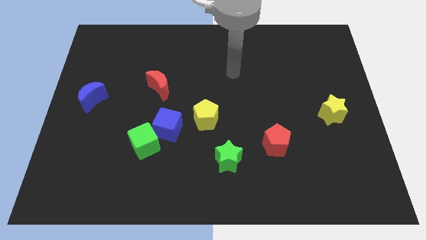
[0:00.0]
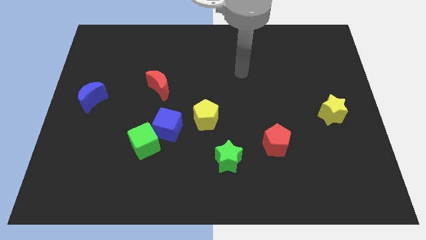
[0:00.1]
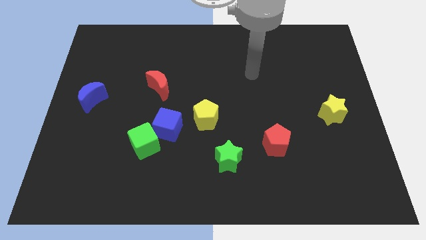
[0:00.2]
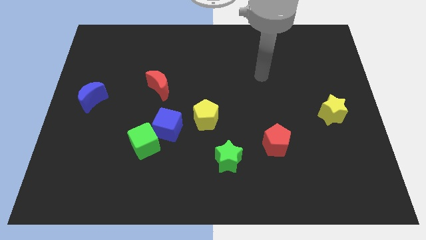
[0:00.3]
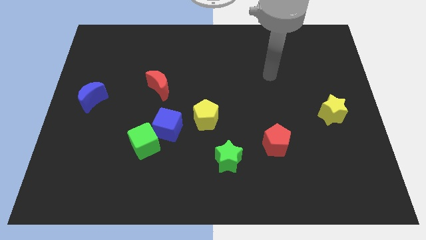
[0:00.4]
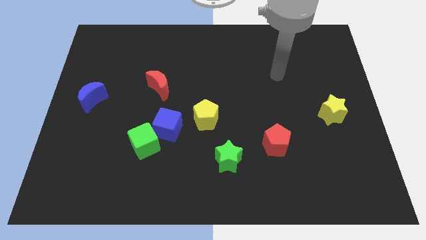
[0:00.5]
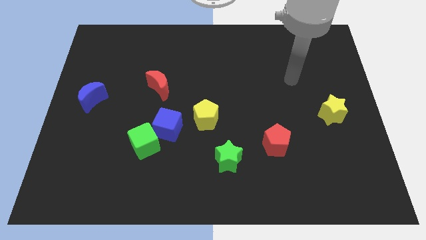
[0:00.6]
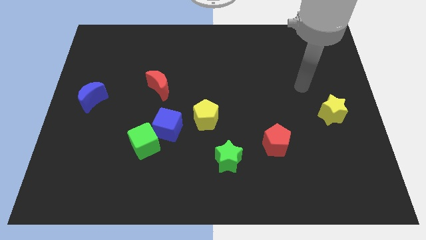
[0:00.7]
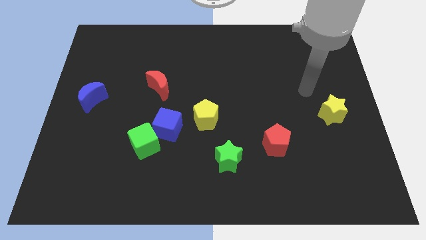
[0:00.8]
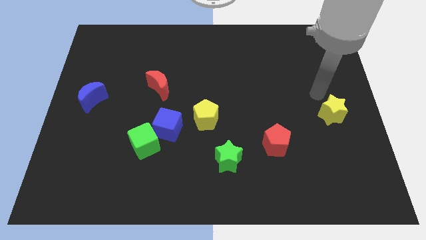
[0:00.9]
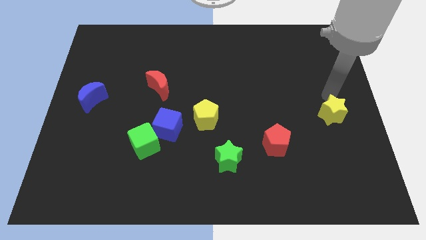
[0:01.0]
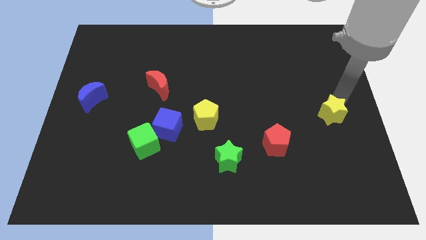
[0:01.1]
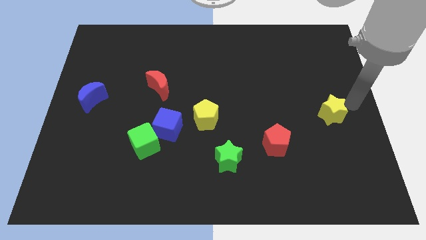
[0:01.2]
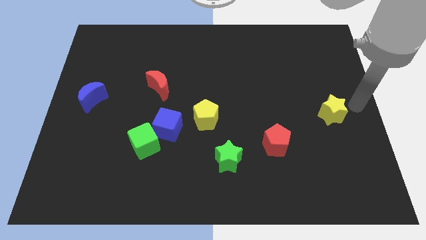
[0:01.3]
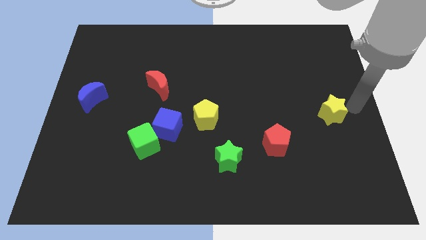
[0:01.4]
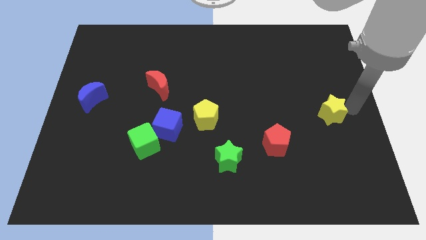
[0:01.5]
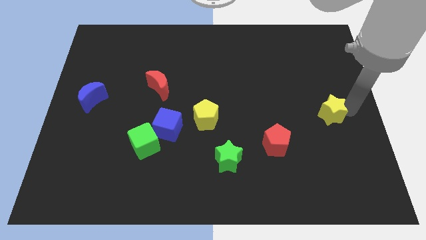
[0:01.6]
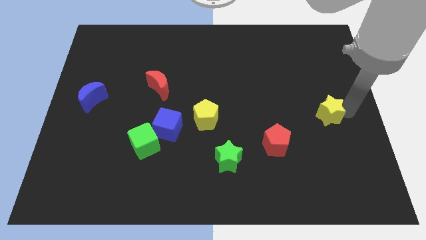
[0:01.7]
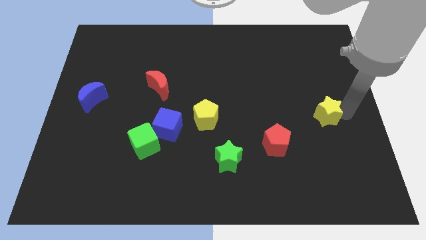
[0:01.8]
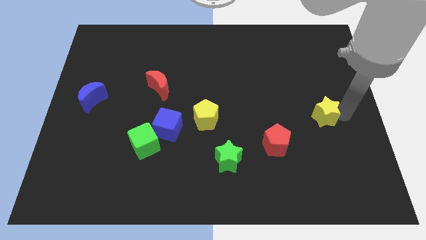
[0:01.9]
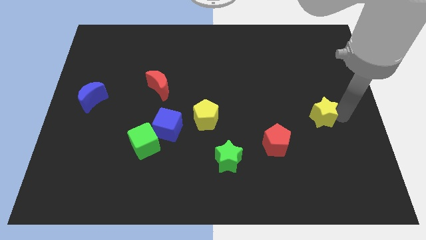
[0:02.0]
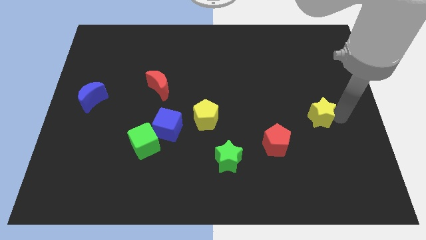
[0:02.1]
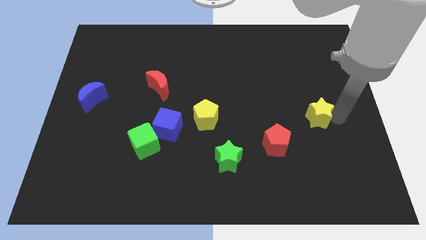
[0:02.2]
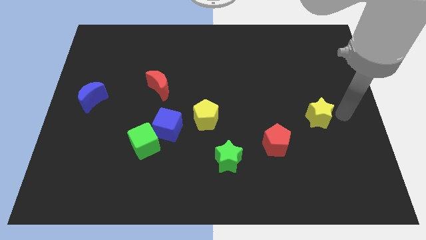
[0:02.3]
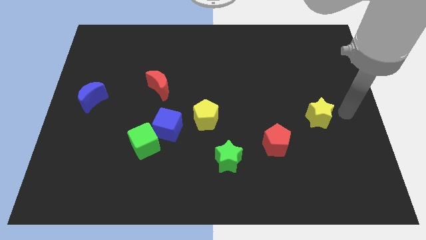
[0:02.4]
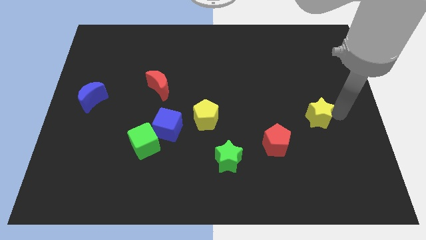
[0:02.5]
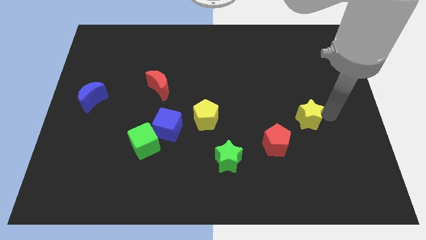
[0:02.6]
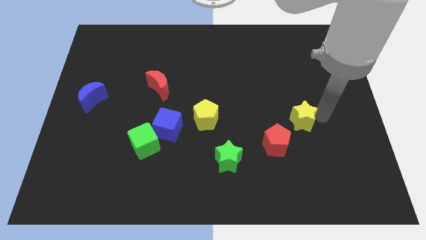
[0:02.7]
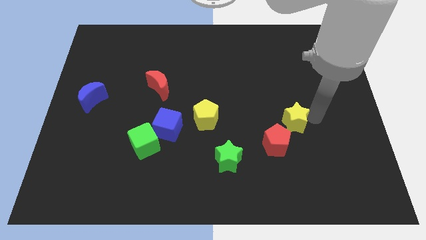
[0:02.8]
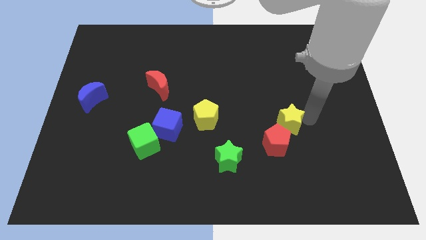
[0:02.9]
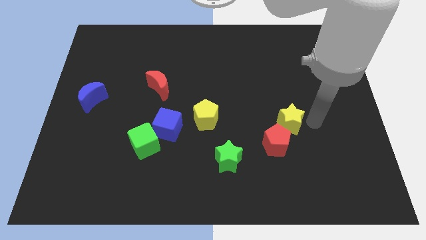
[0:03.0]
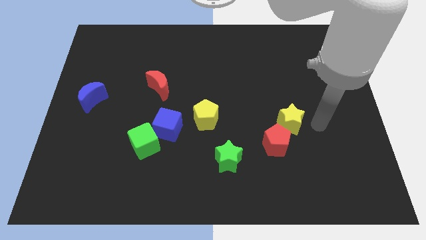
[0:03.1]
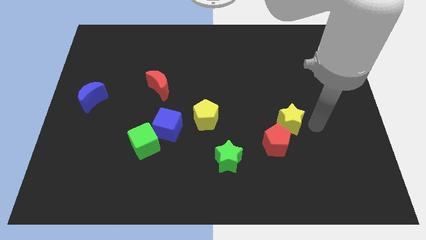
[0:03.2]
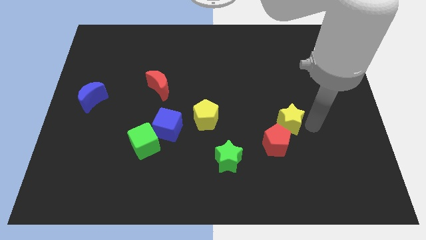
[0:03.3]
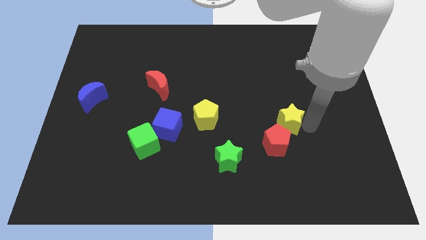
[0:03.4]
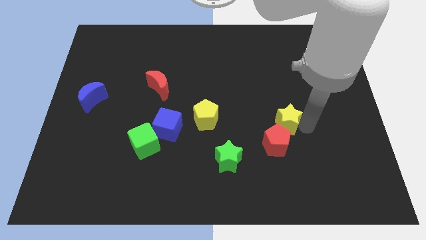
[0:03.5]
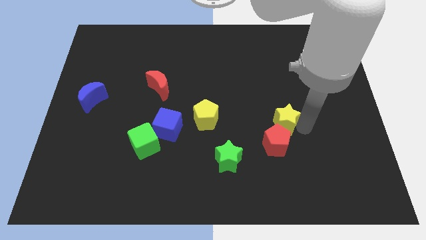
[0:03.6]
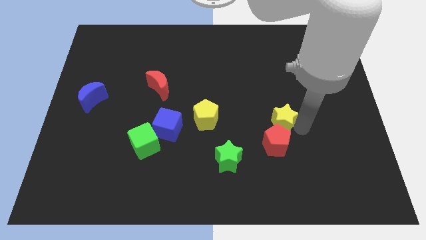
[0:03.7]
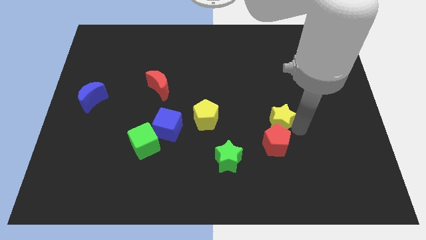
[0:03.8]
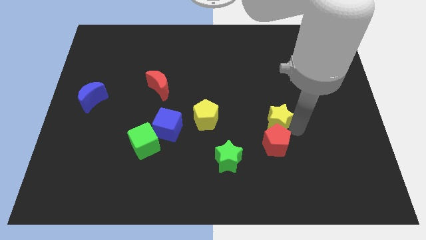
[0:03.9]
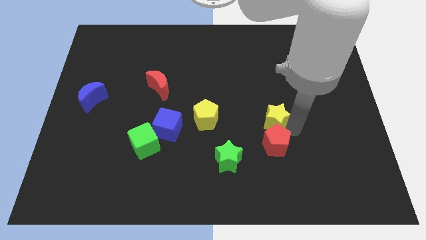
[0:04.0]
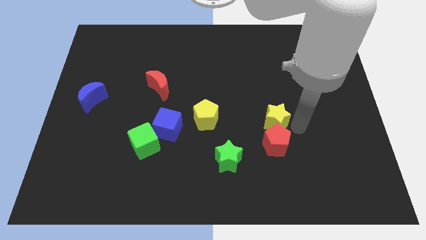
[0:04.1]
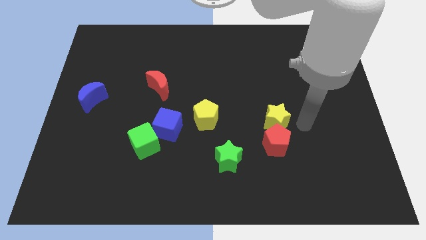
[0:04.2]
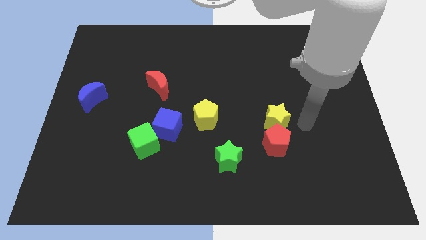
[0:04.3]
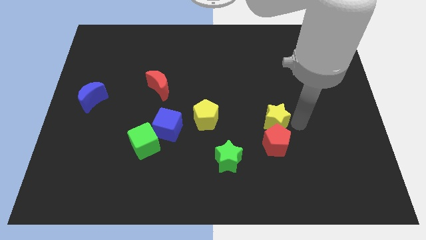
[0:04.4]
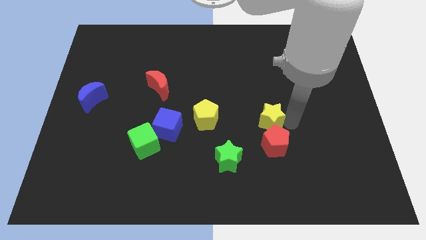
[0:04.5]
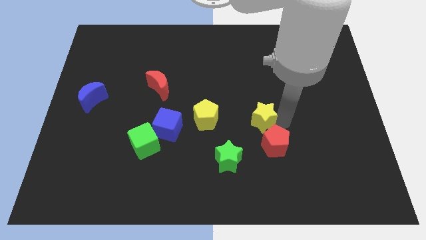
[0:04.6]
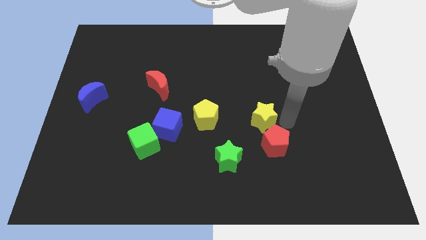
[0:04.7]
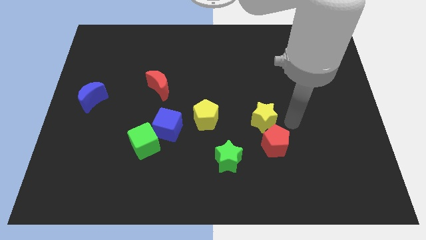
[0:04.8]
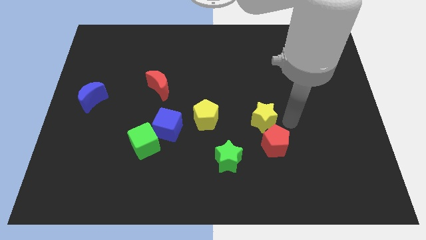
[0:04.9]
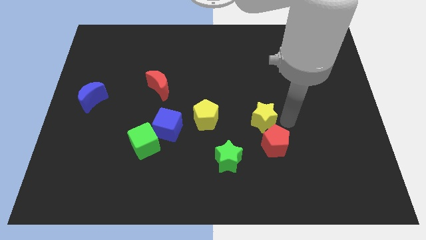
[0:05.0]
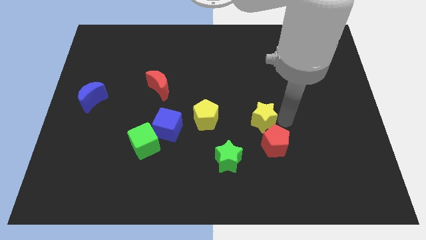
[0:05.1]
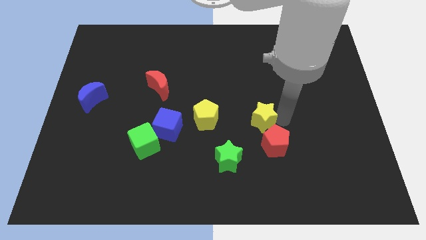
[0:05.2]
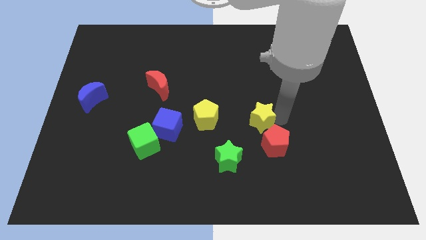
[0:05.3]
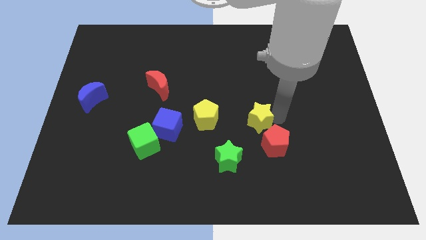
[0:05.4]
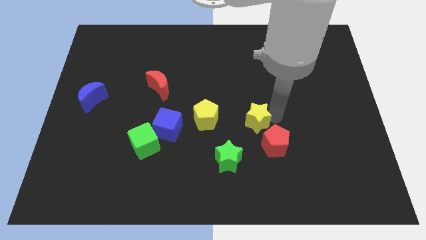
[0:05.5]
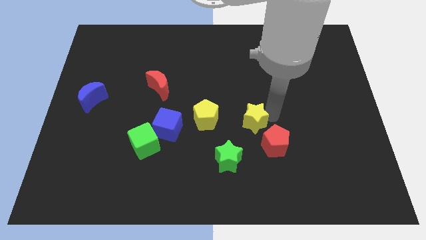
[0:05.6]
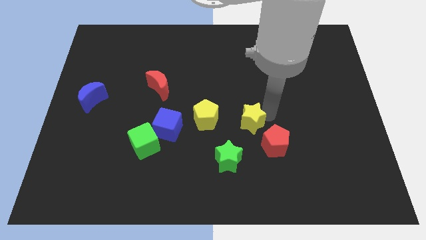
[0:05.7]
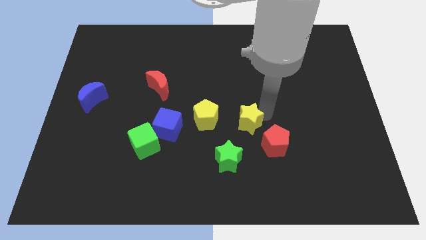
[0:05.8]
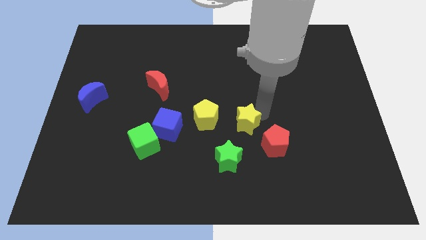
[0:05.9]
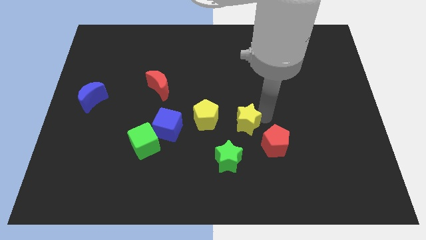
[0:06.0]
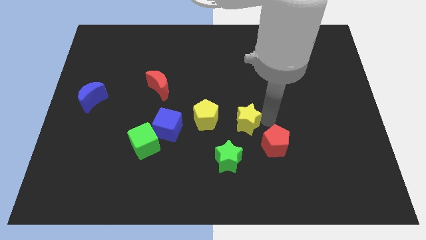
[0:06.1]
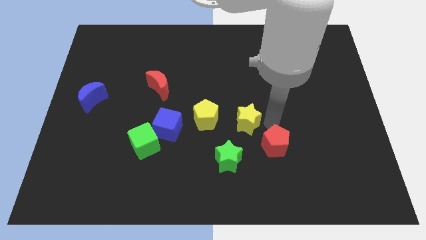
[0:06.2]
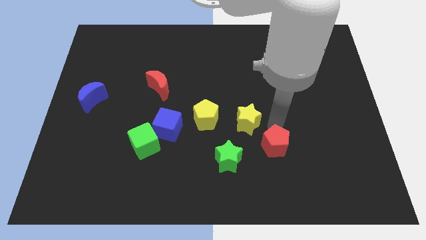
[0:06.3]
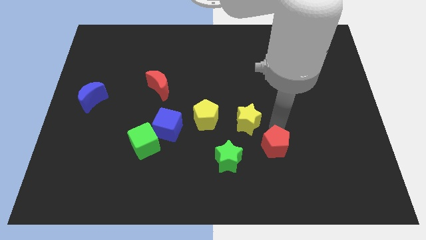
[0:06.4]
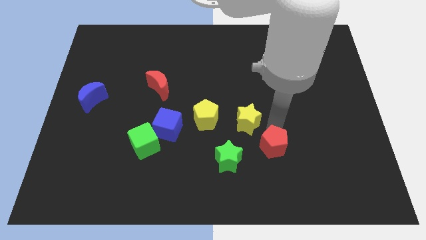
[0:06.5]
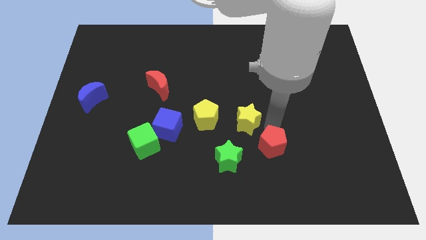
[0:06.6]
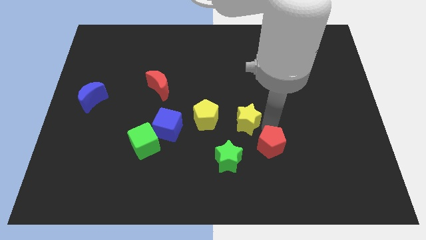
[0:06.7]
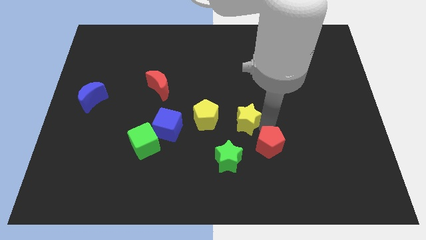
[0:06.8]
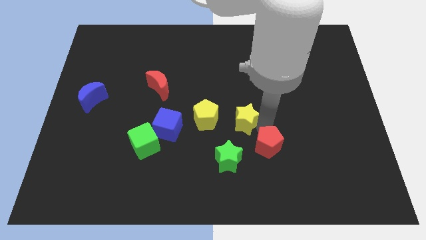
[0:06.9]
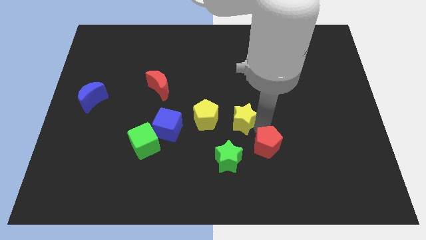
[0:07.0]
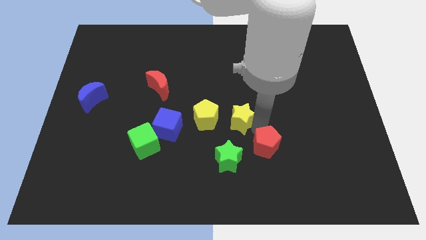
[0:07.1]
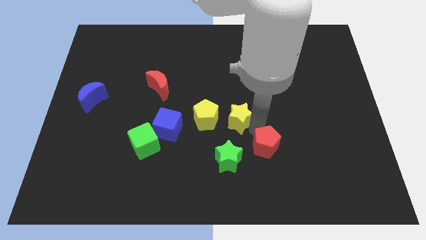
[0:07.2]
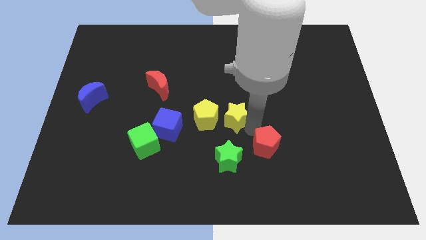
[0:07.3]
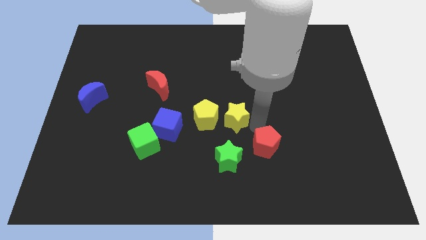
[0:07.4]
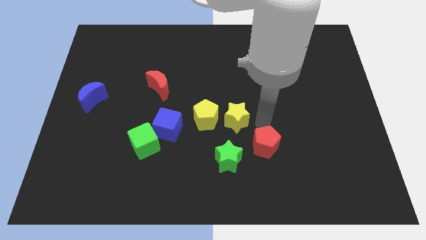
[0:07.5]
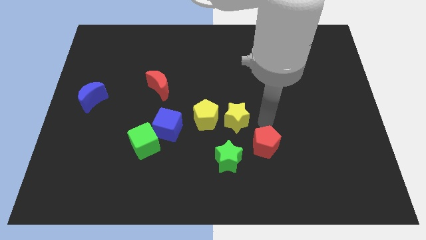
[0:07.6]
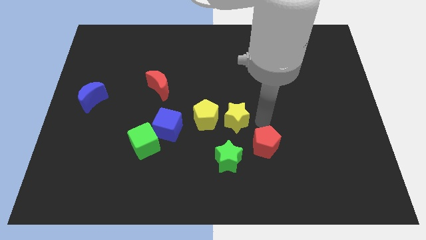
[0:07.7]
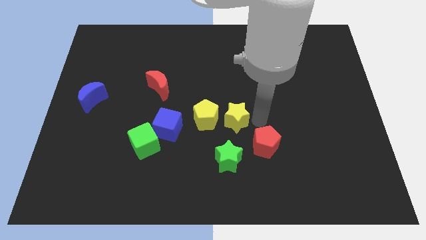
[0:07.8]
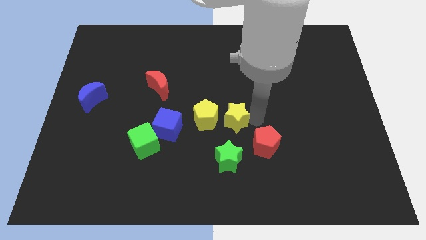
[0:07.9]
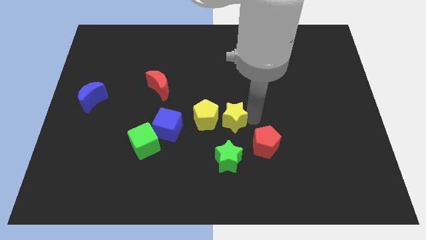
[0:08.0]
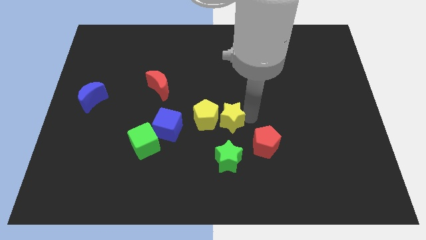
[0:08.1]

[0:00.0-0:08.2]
slide the yellow star to the yellow pentagon
